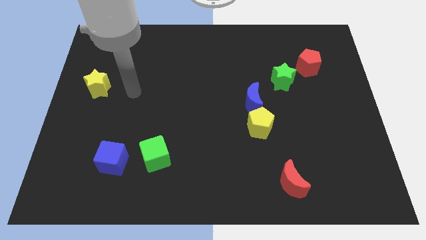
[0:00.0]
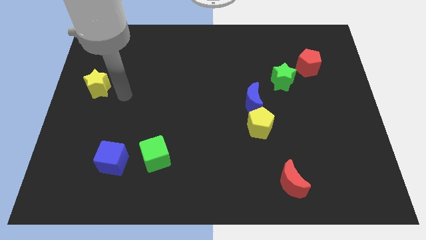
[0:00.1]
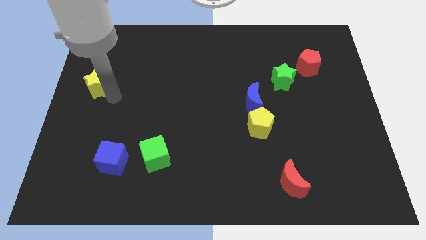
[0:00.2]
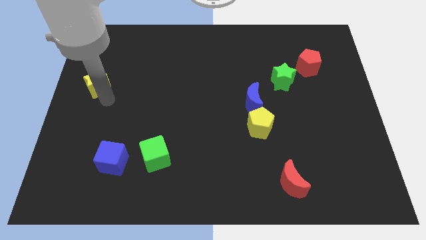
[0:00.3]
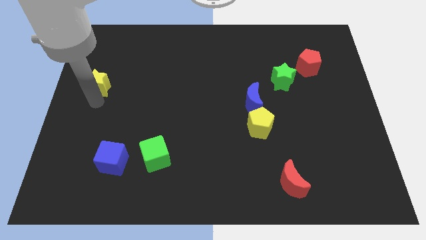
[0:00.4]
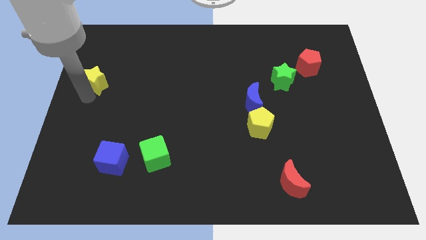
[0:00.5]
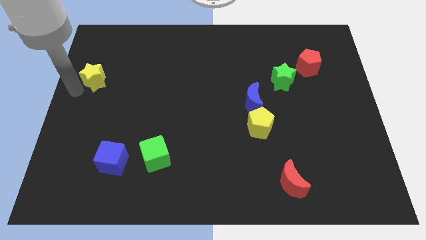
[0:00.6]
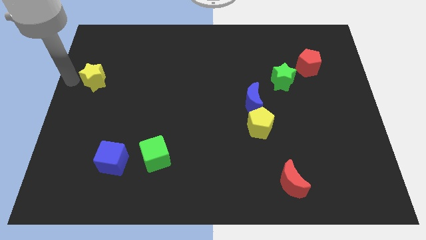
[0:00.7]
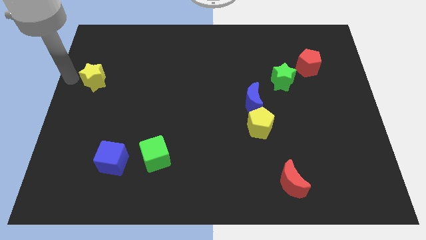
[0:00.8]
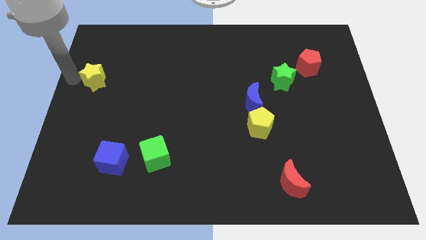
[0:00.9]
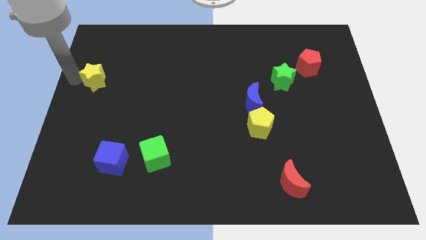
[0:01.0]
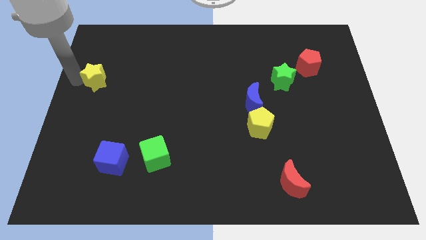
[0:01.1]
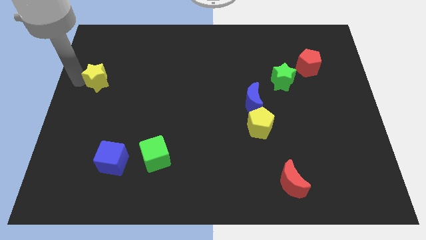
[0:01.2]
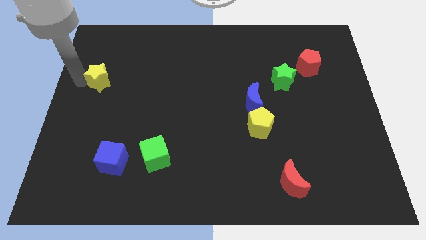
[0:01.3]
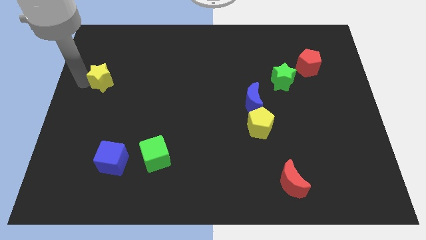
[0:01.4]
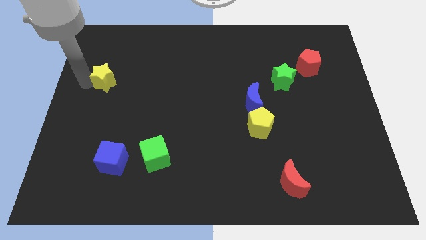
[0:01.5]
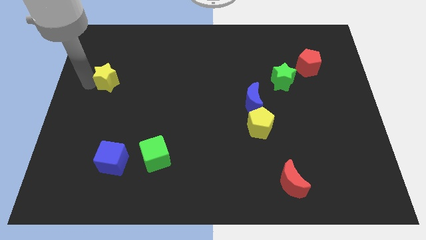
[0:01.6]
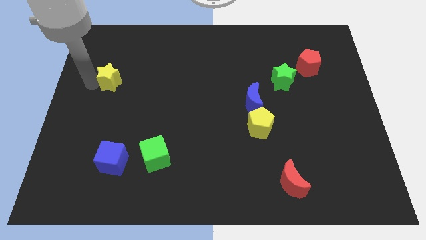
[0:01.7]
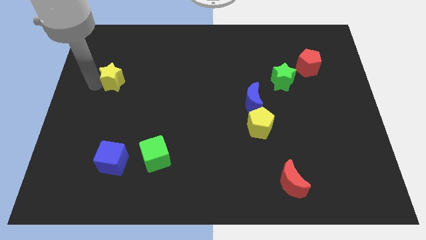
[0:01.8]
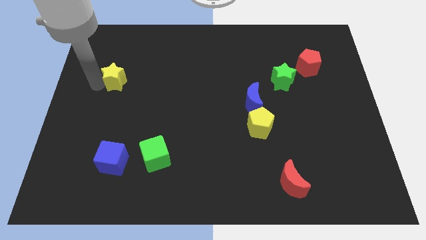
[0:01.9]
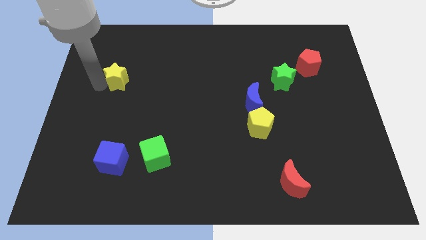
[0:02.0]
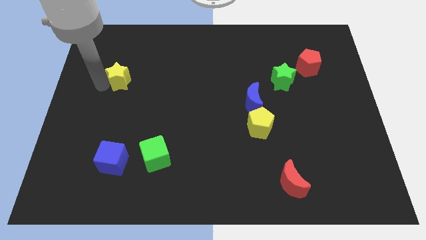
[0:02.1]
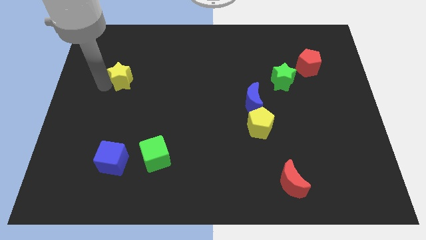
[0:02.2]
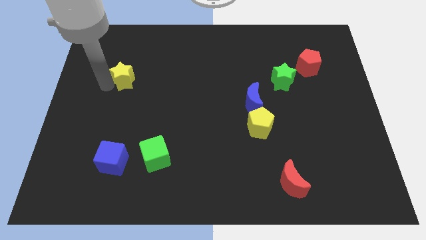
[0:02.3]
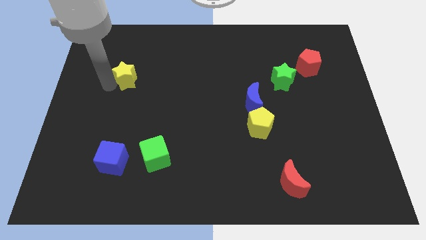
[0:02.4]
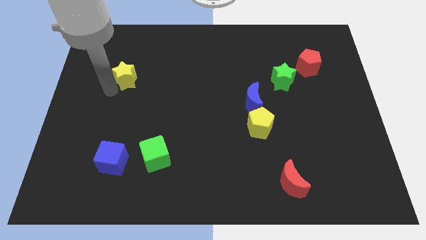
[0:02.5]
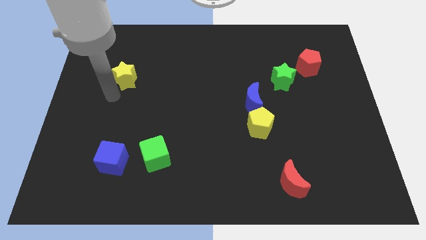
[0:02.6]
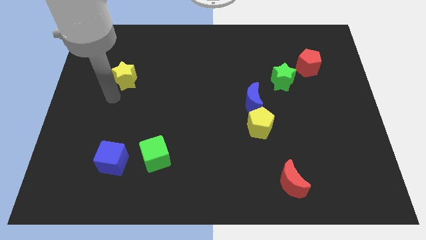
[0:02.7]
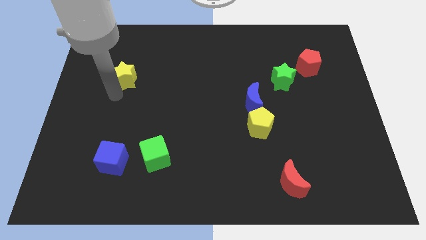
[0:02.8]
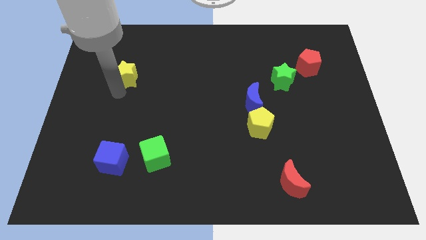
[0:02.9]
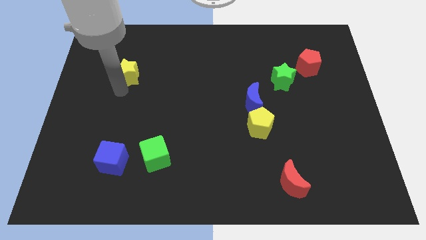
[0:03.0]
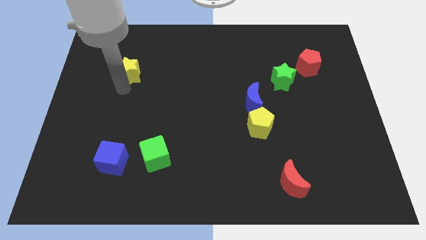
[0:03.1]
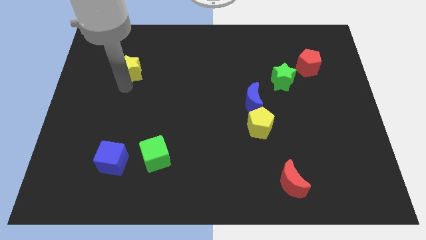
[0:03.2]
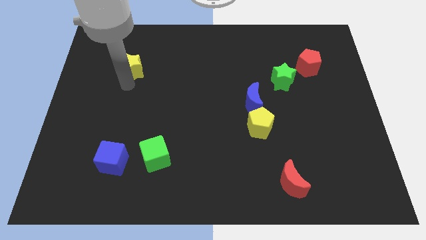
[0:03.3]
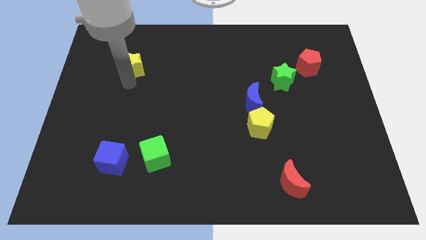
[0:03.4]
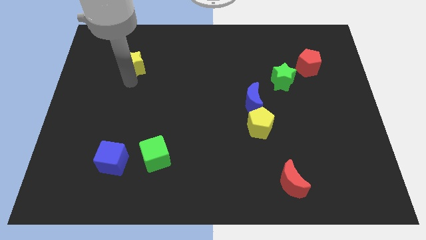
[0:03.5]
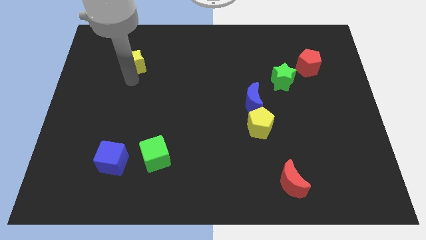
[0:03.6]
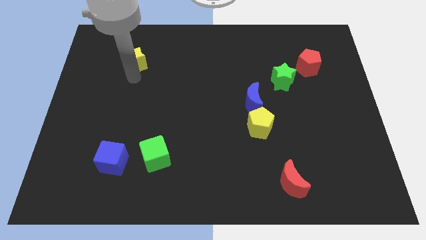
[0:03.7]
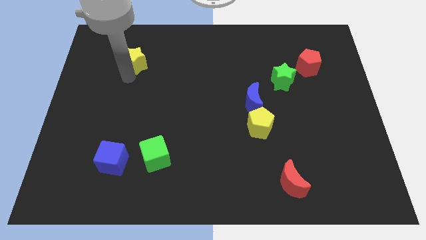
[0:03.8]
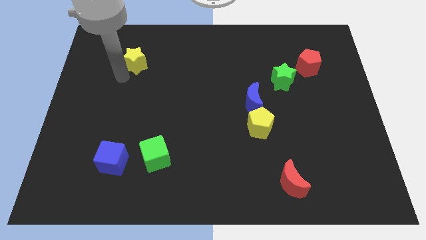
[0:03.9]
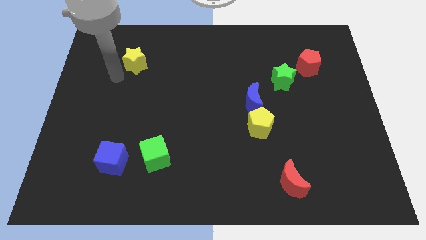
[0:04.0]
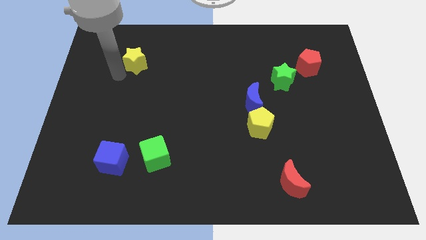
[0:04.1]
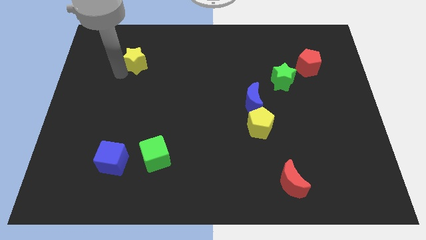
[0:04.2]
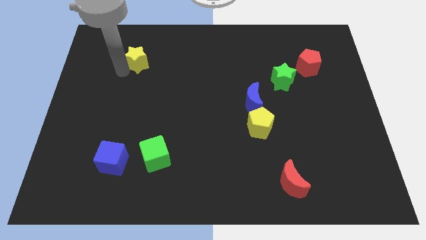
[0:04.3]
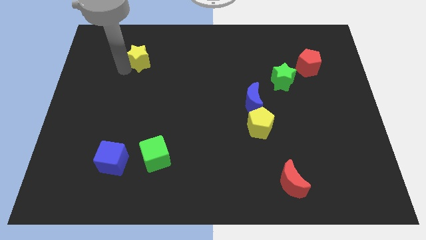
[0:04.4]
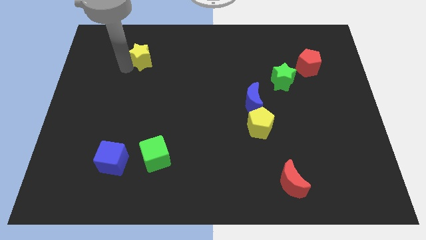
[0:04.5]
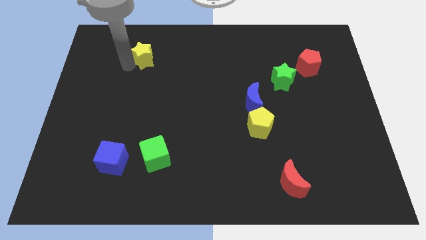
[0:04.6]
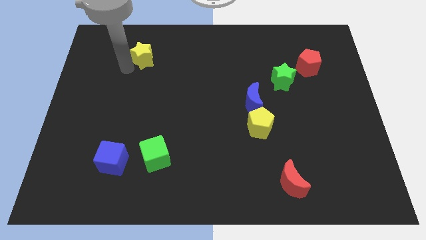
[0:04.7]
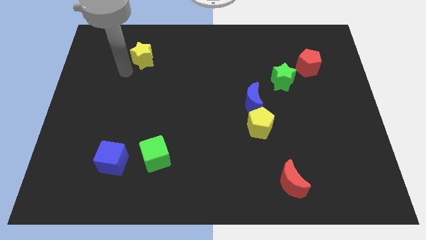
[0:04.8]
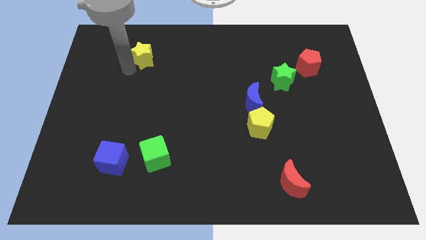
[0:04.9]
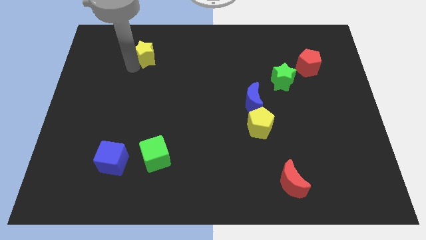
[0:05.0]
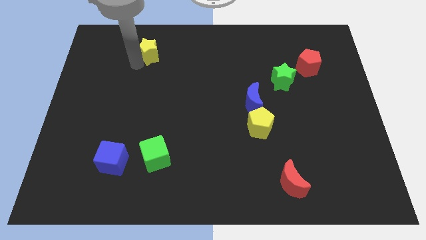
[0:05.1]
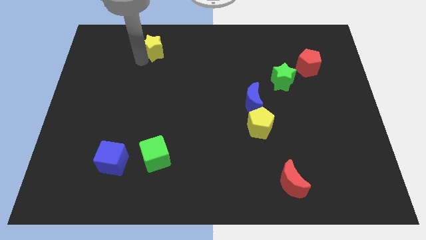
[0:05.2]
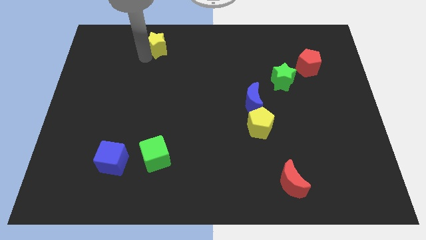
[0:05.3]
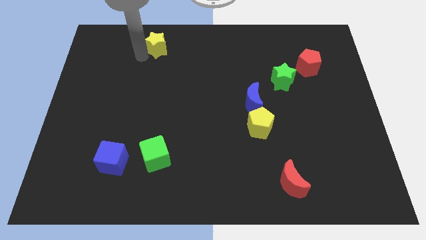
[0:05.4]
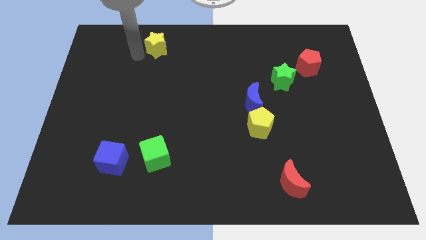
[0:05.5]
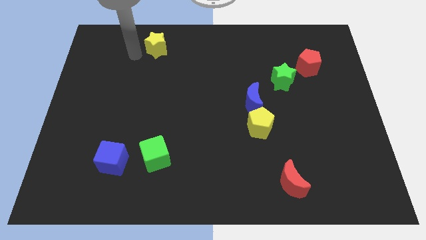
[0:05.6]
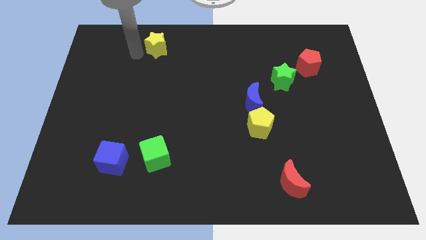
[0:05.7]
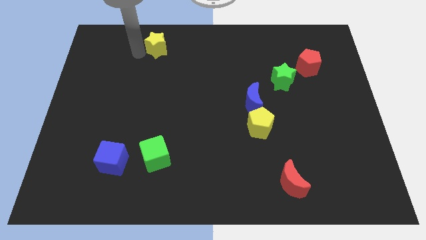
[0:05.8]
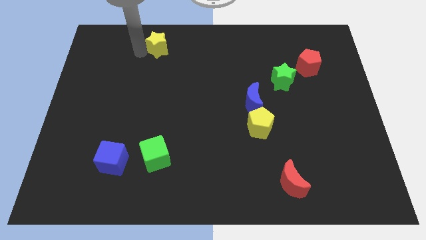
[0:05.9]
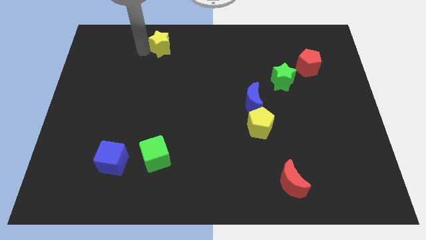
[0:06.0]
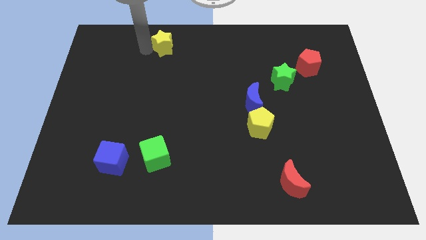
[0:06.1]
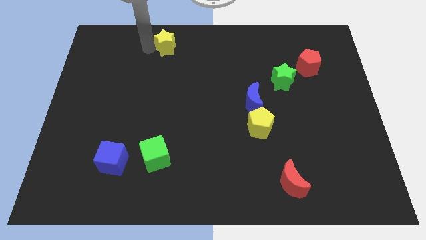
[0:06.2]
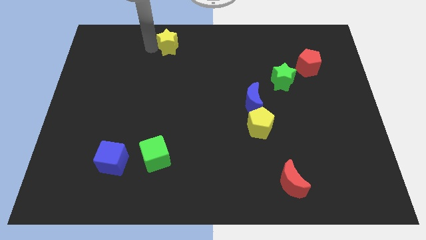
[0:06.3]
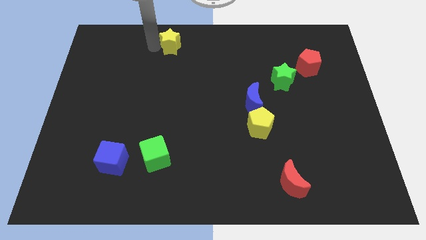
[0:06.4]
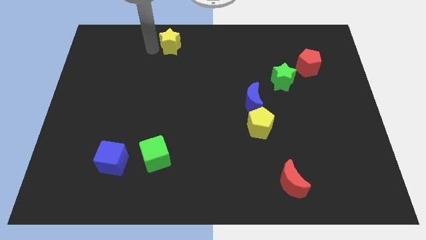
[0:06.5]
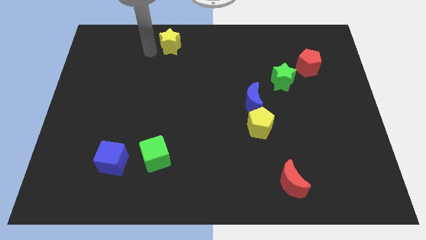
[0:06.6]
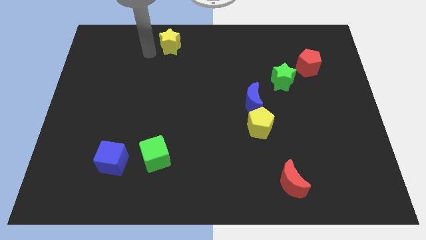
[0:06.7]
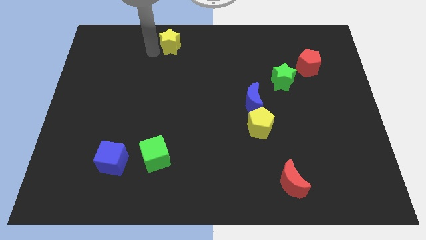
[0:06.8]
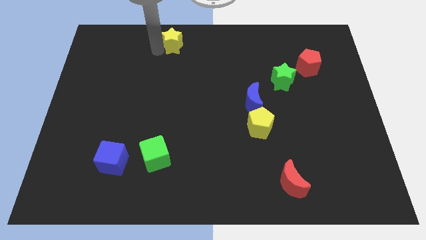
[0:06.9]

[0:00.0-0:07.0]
put the yellow star to the top
